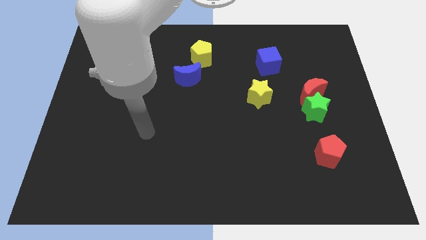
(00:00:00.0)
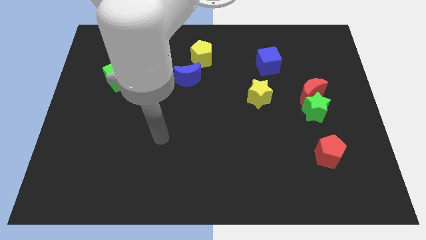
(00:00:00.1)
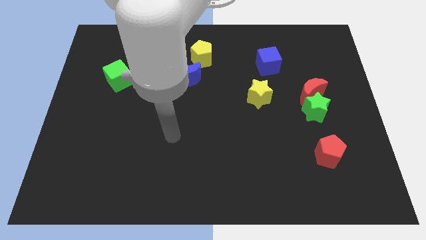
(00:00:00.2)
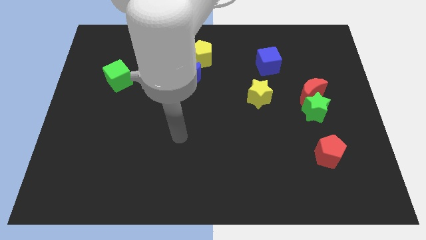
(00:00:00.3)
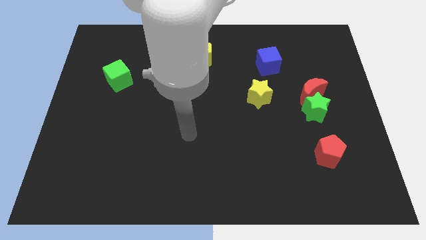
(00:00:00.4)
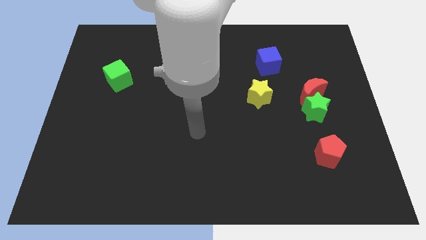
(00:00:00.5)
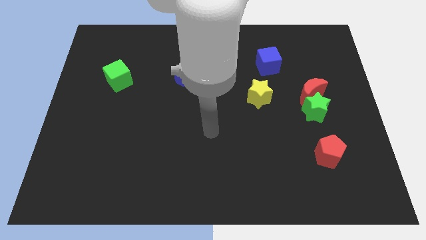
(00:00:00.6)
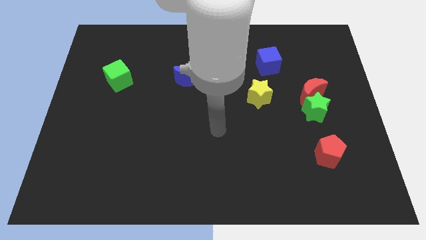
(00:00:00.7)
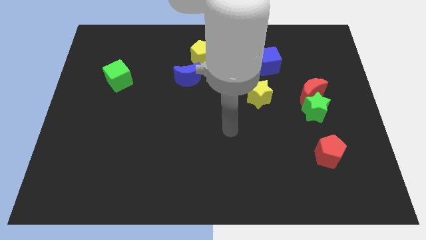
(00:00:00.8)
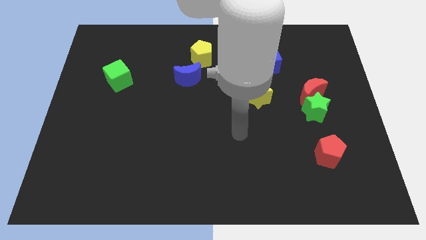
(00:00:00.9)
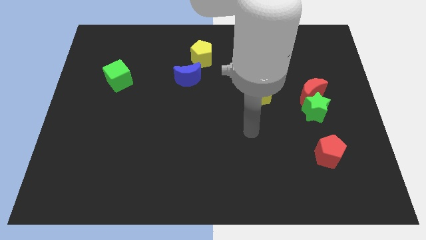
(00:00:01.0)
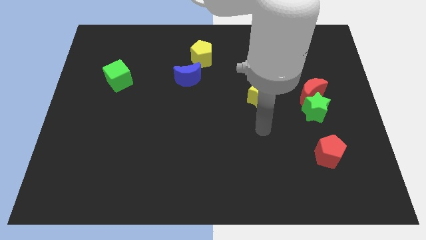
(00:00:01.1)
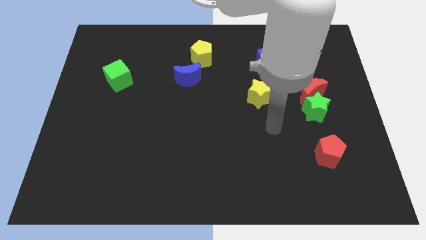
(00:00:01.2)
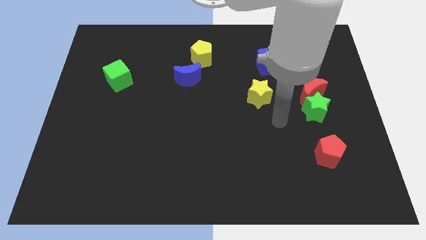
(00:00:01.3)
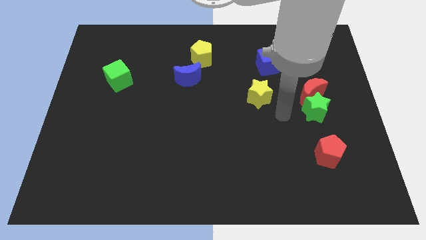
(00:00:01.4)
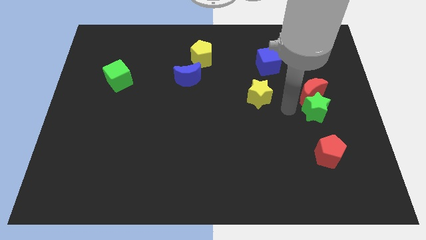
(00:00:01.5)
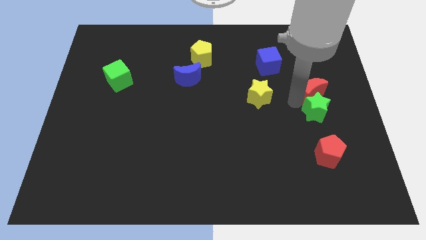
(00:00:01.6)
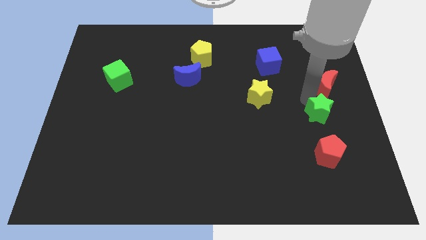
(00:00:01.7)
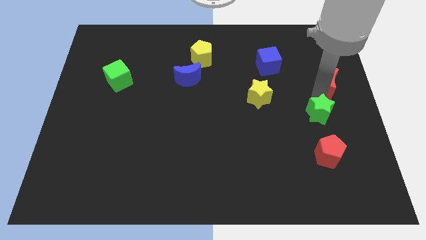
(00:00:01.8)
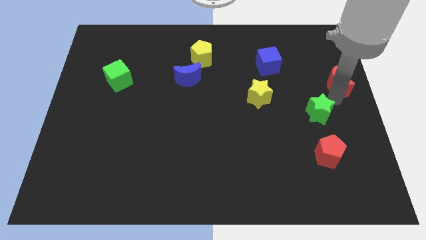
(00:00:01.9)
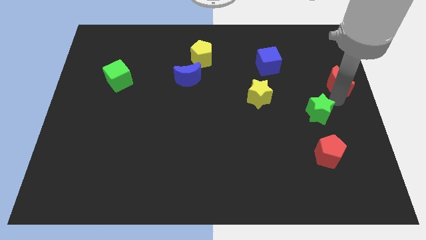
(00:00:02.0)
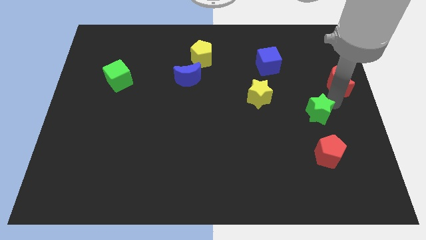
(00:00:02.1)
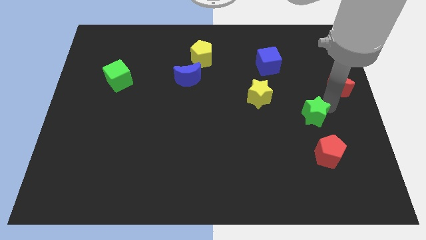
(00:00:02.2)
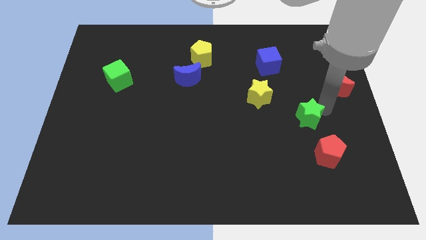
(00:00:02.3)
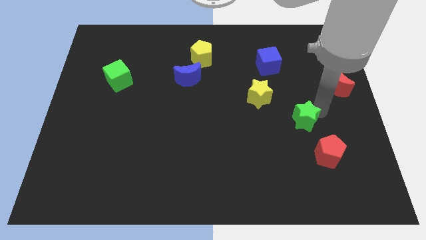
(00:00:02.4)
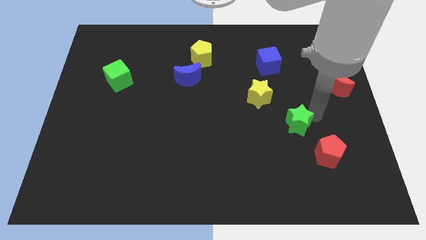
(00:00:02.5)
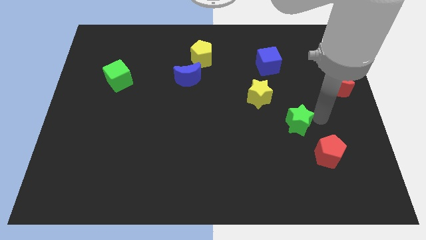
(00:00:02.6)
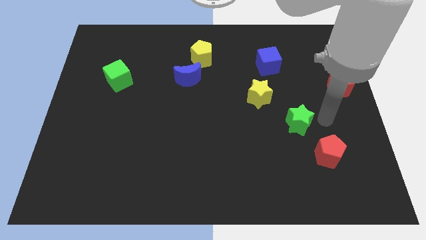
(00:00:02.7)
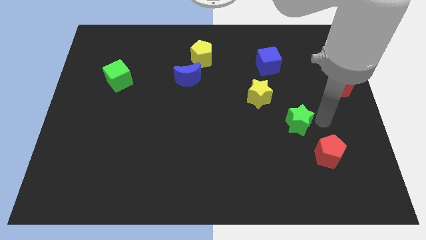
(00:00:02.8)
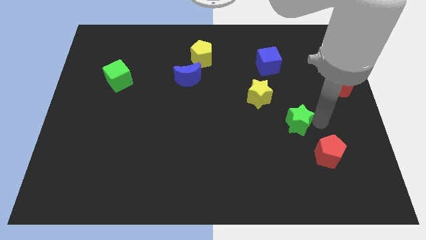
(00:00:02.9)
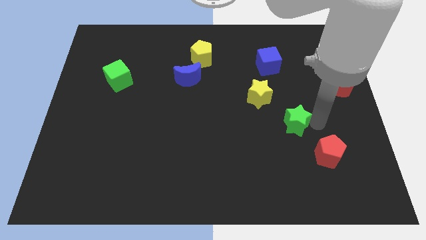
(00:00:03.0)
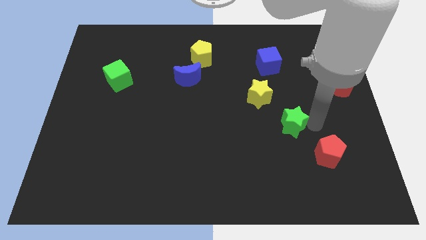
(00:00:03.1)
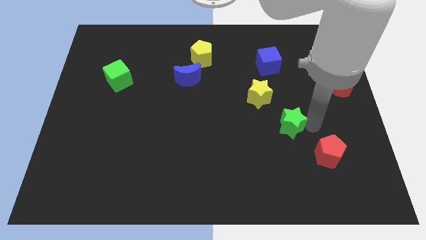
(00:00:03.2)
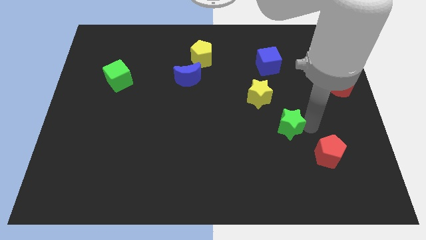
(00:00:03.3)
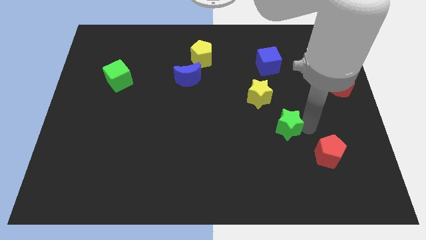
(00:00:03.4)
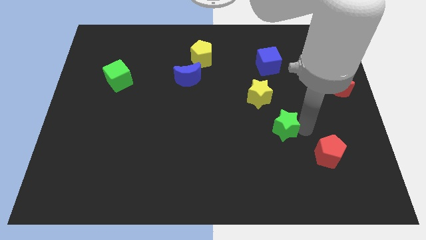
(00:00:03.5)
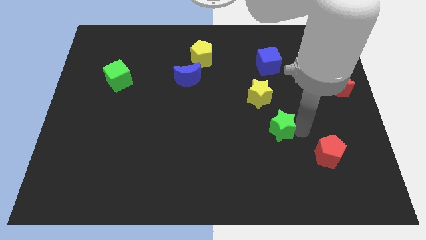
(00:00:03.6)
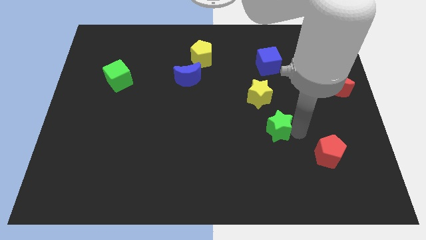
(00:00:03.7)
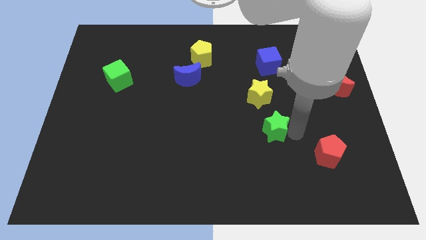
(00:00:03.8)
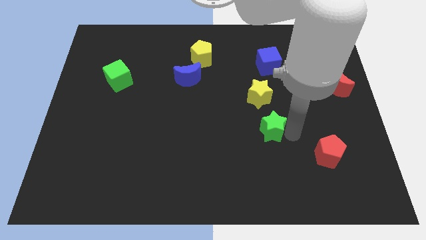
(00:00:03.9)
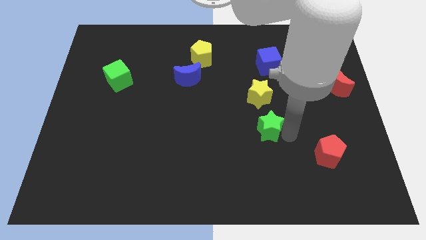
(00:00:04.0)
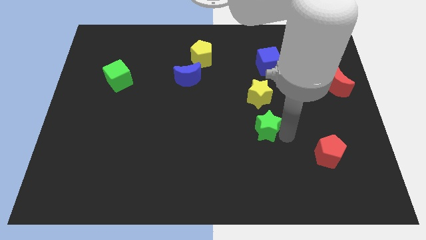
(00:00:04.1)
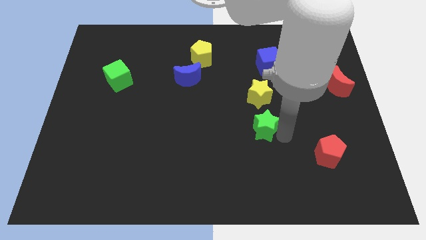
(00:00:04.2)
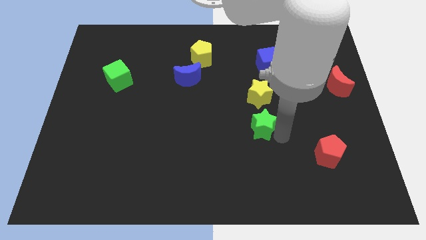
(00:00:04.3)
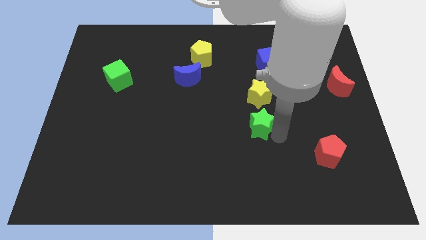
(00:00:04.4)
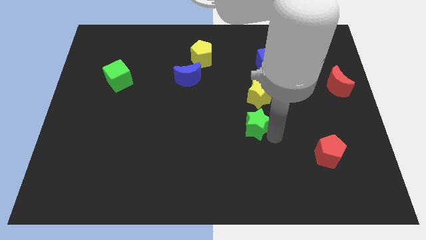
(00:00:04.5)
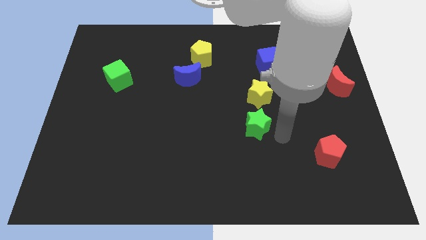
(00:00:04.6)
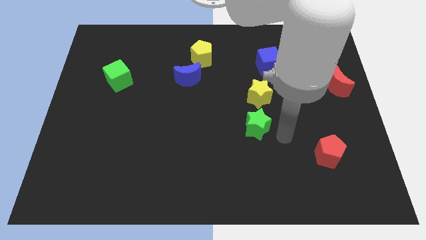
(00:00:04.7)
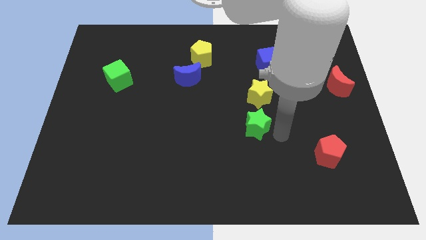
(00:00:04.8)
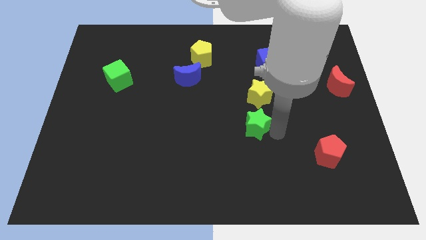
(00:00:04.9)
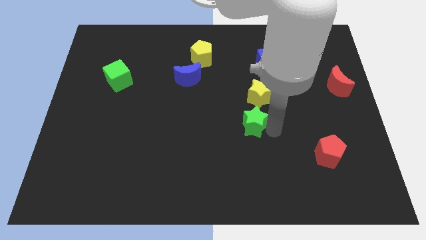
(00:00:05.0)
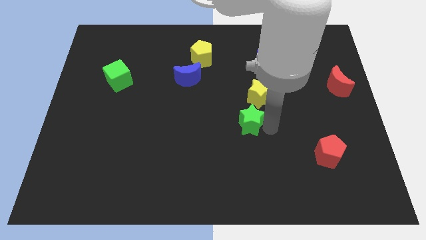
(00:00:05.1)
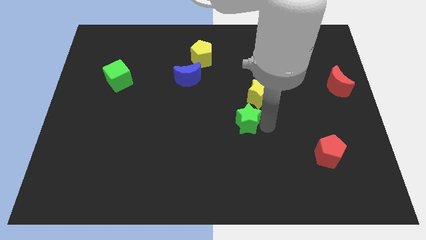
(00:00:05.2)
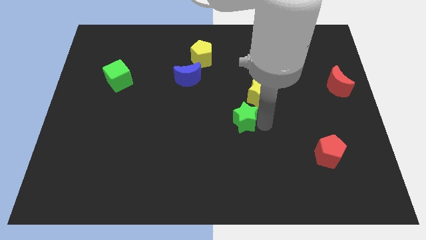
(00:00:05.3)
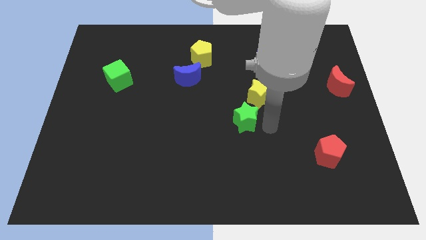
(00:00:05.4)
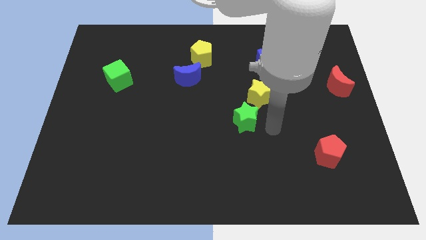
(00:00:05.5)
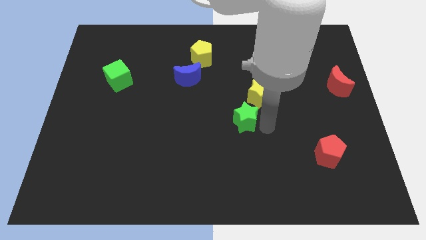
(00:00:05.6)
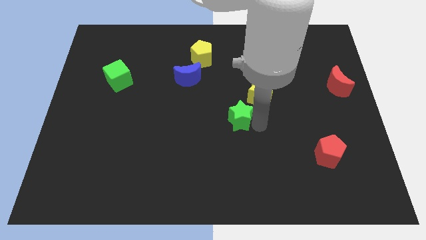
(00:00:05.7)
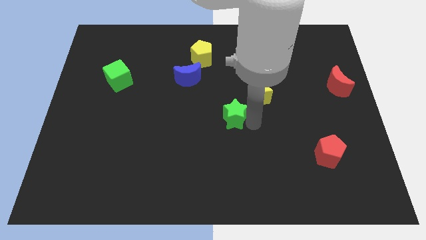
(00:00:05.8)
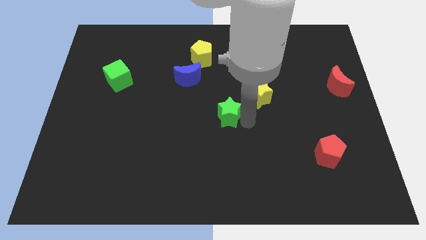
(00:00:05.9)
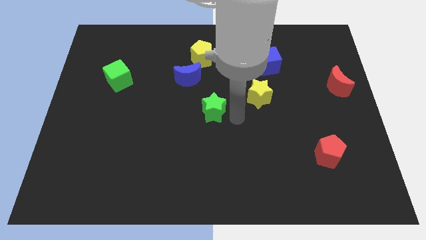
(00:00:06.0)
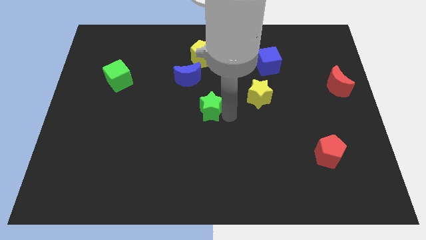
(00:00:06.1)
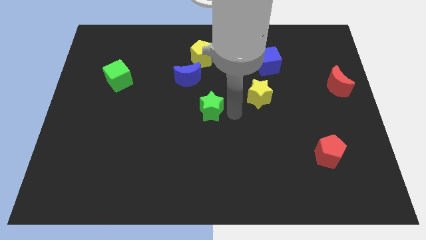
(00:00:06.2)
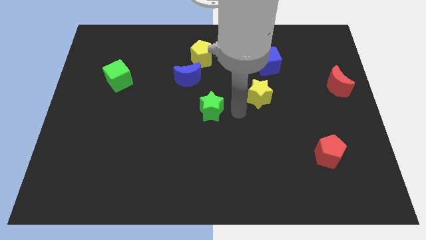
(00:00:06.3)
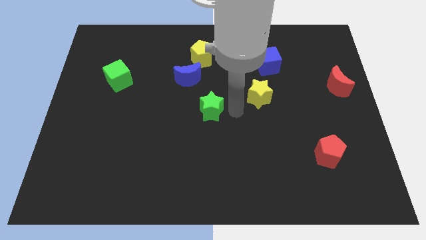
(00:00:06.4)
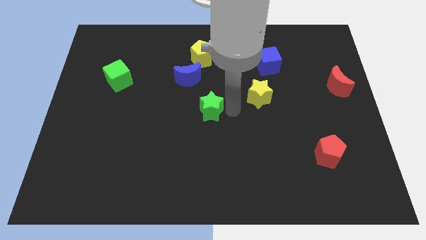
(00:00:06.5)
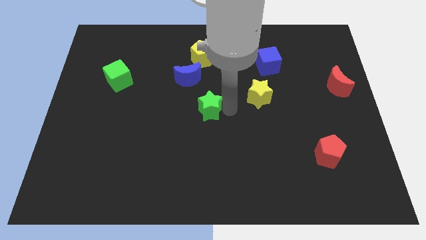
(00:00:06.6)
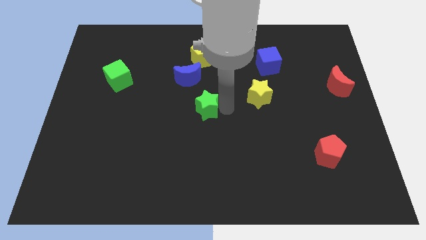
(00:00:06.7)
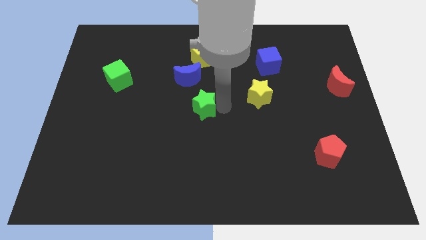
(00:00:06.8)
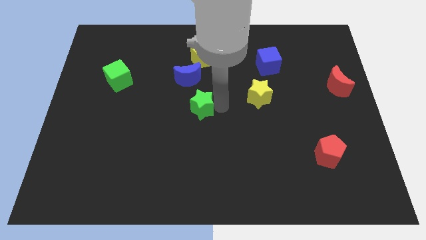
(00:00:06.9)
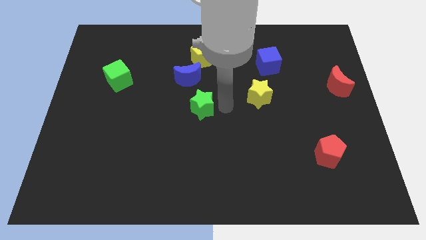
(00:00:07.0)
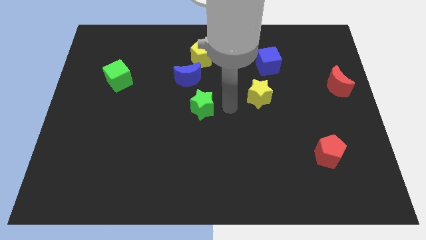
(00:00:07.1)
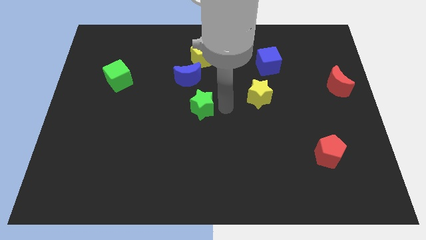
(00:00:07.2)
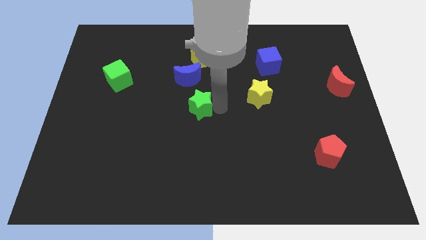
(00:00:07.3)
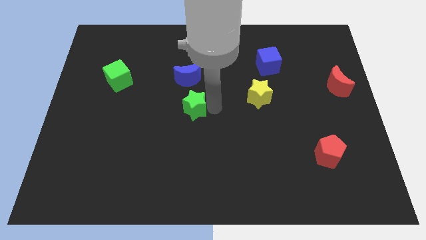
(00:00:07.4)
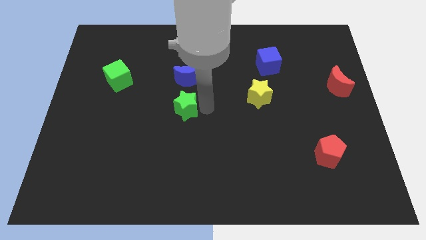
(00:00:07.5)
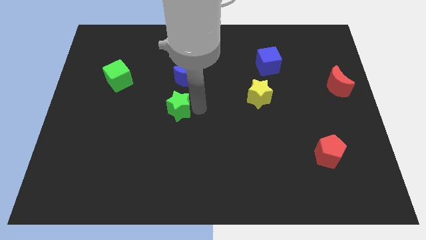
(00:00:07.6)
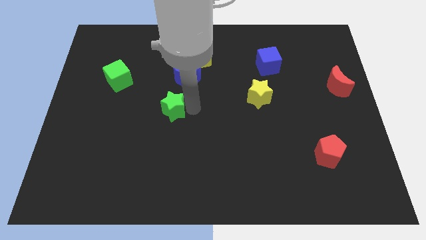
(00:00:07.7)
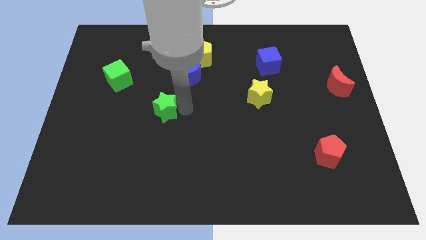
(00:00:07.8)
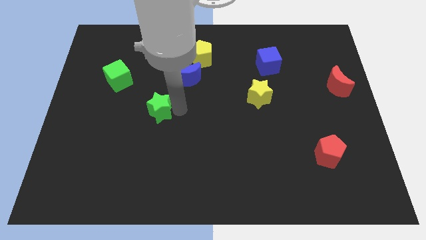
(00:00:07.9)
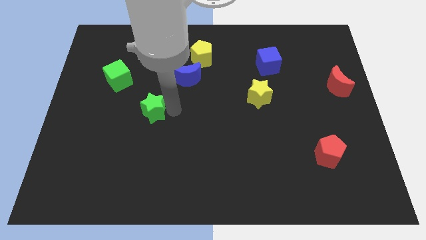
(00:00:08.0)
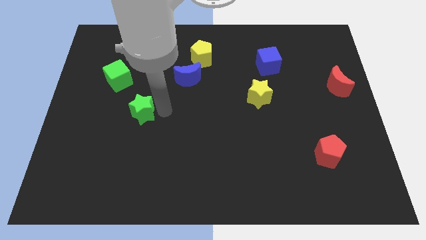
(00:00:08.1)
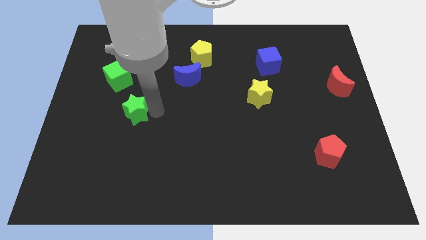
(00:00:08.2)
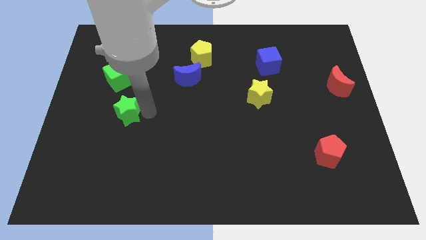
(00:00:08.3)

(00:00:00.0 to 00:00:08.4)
push the green star to the bottom of the green cube
